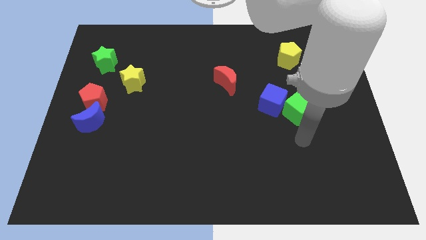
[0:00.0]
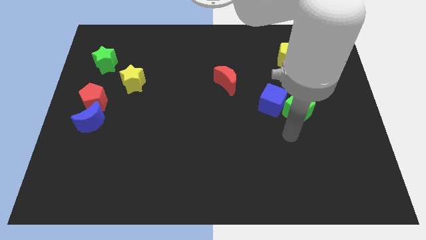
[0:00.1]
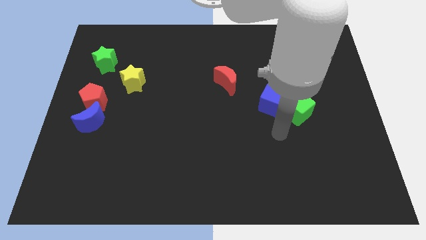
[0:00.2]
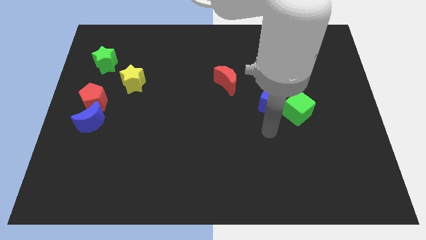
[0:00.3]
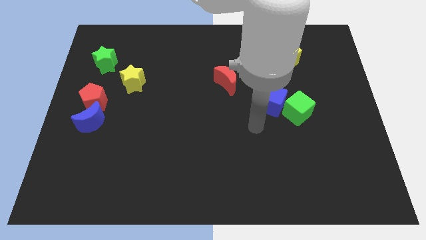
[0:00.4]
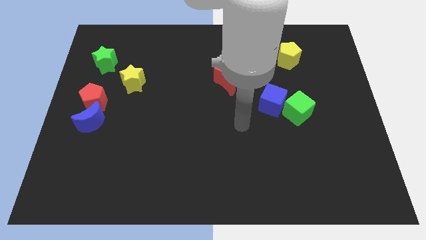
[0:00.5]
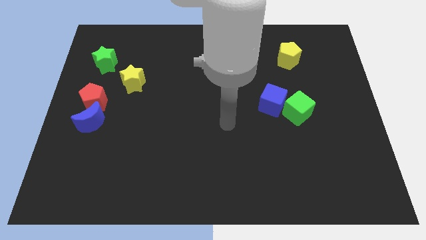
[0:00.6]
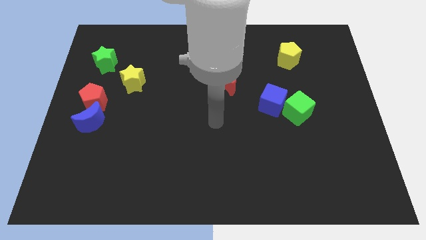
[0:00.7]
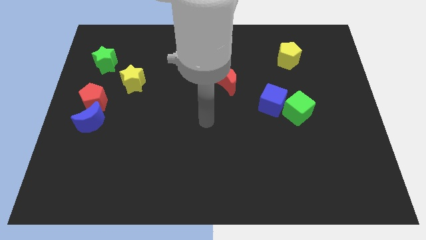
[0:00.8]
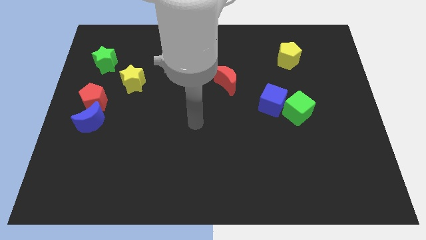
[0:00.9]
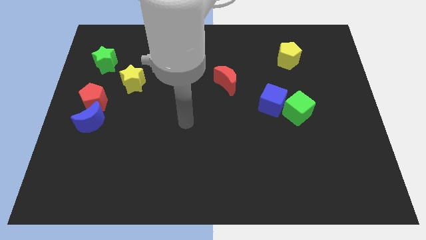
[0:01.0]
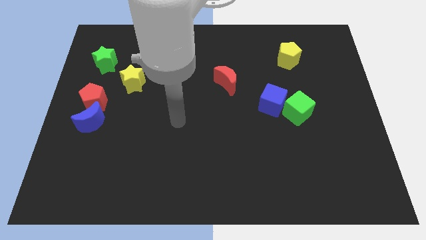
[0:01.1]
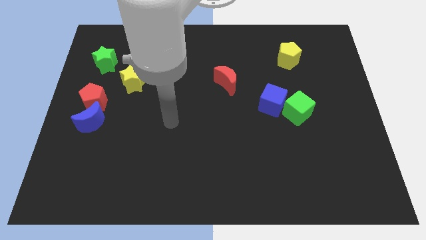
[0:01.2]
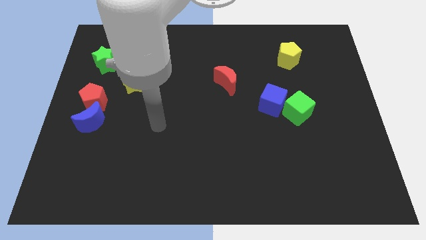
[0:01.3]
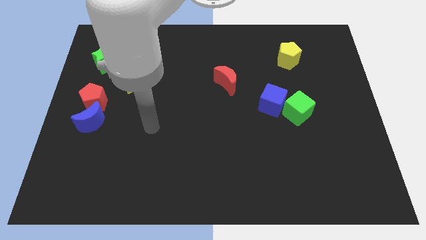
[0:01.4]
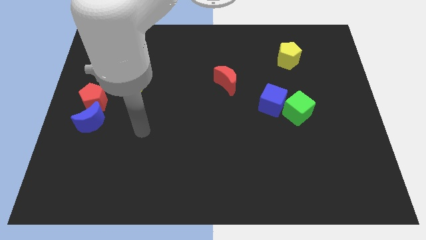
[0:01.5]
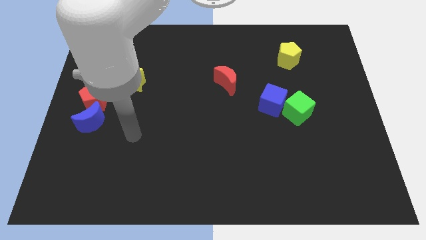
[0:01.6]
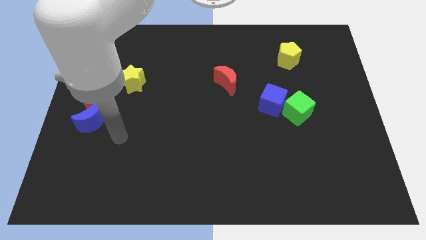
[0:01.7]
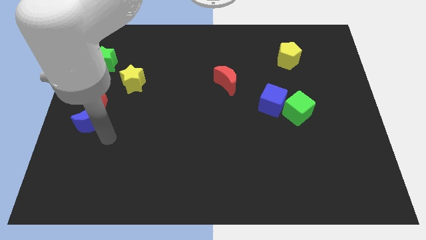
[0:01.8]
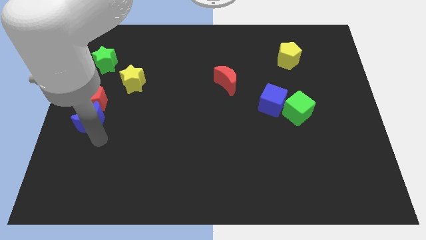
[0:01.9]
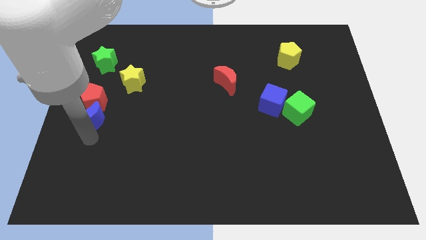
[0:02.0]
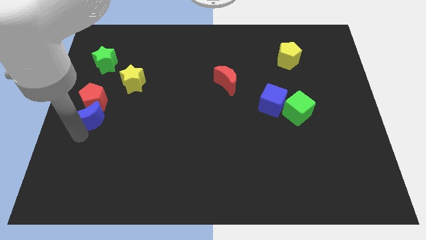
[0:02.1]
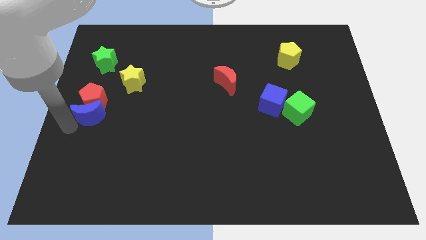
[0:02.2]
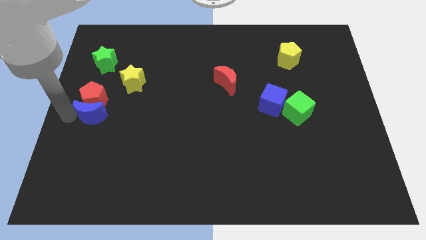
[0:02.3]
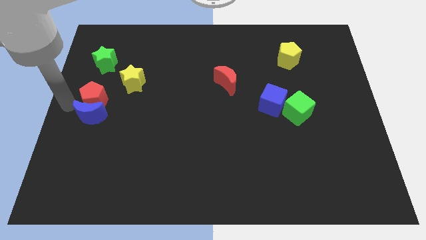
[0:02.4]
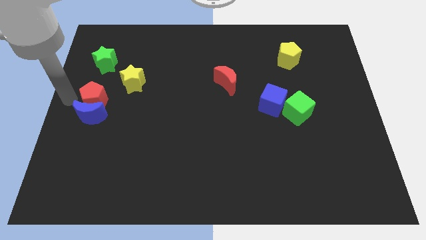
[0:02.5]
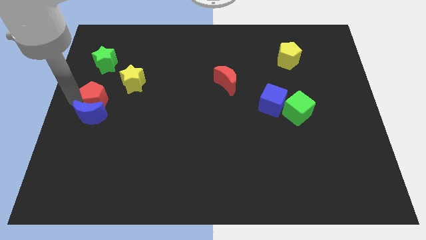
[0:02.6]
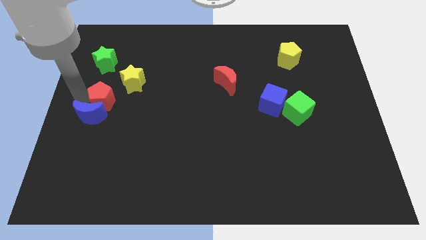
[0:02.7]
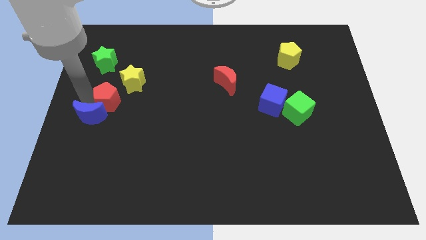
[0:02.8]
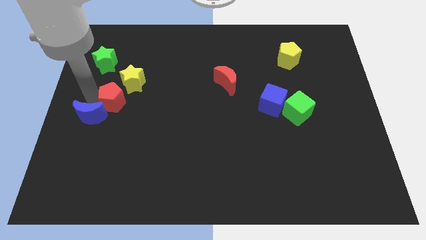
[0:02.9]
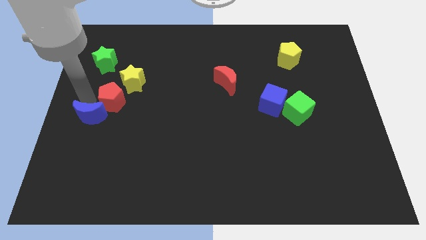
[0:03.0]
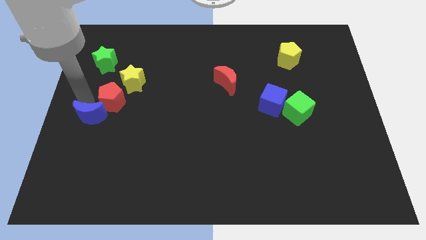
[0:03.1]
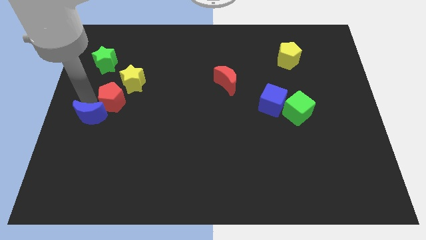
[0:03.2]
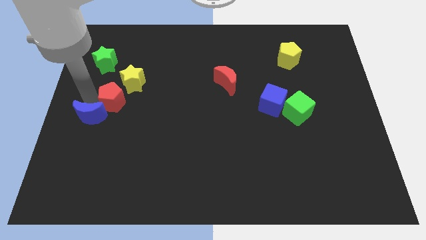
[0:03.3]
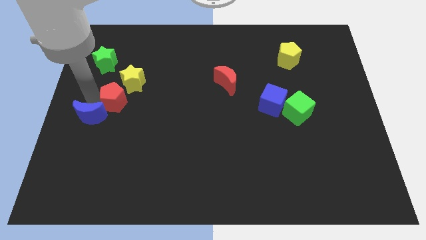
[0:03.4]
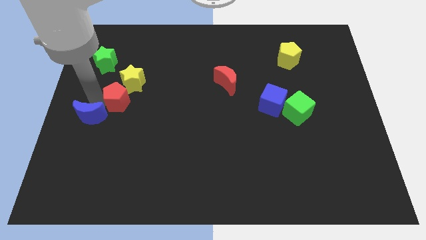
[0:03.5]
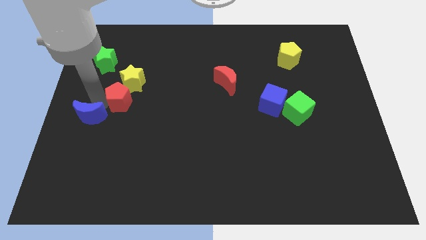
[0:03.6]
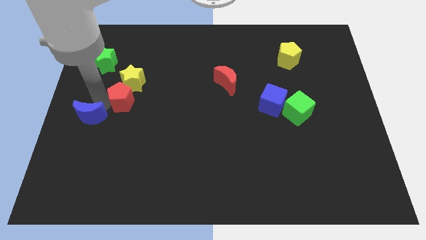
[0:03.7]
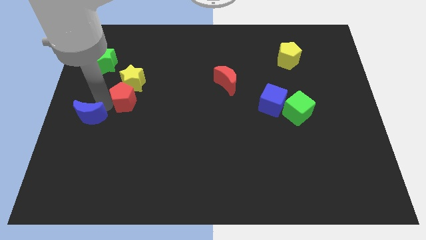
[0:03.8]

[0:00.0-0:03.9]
slide the red pentagon to the right a bit

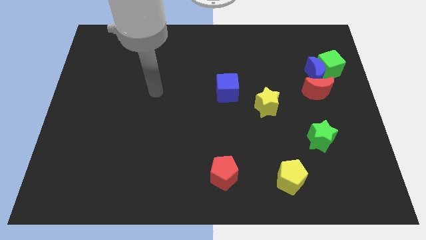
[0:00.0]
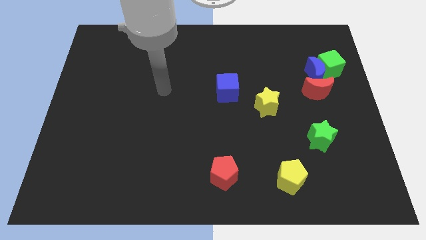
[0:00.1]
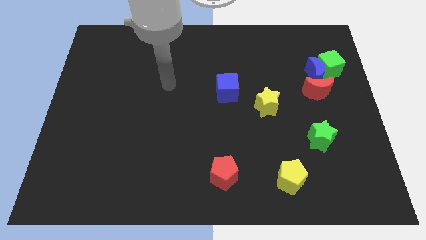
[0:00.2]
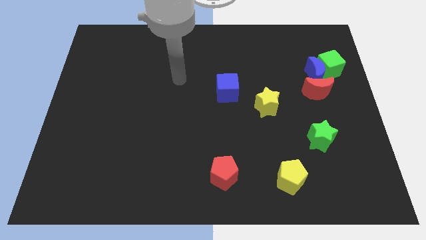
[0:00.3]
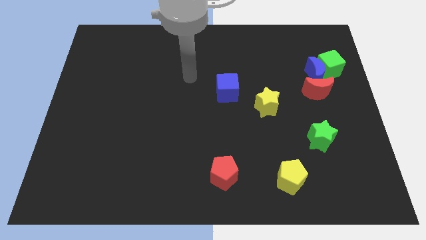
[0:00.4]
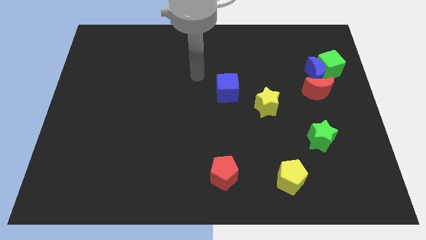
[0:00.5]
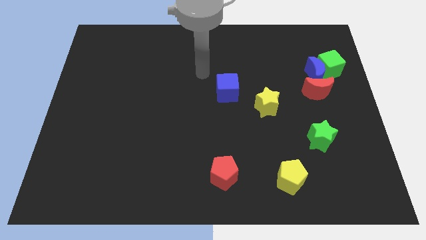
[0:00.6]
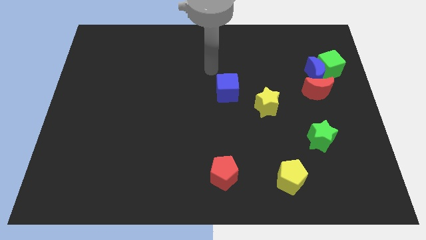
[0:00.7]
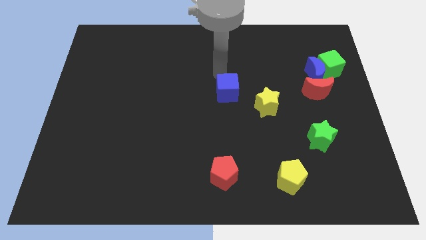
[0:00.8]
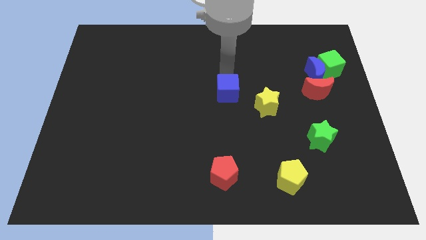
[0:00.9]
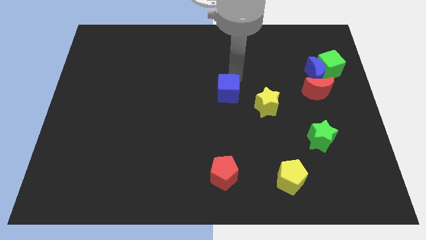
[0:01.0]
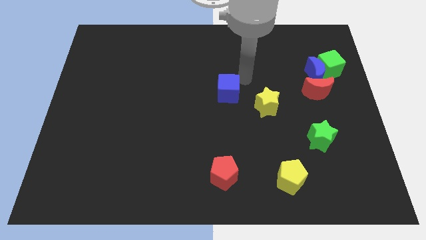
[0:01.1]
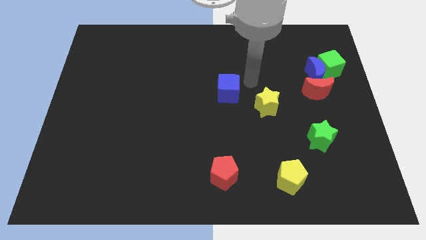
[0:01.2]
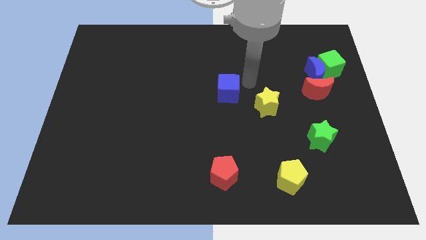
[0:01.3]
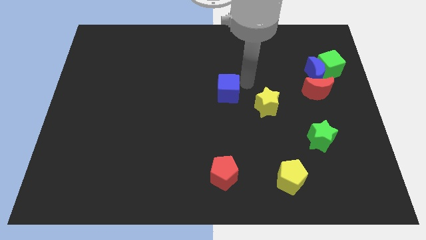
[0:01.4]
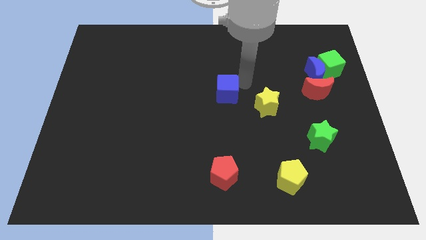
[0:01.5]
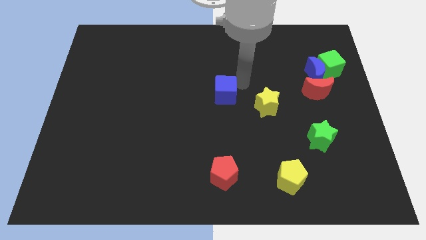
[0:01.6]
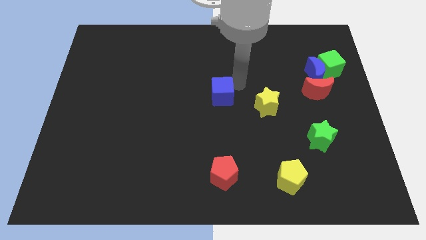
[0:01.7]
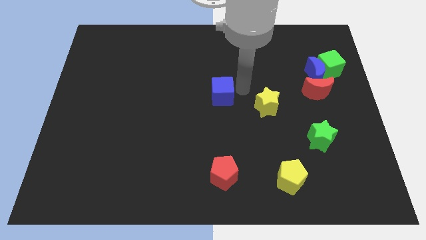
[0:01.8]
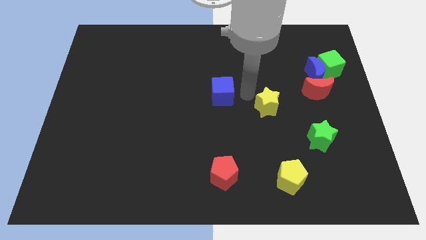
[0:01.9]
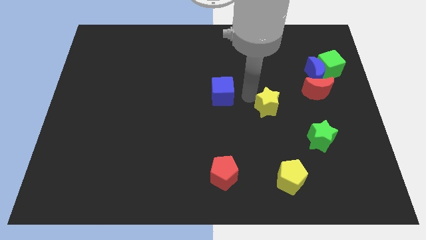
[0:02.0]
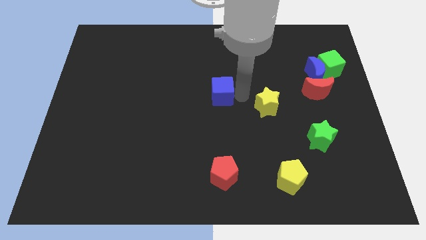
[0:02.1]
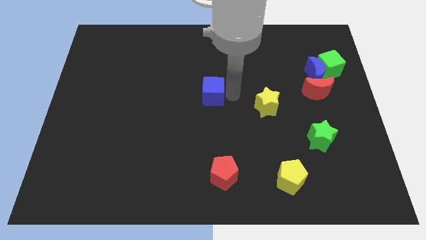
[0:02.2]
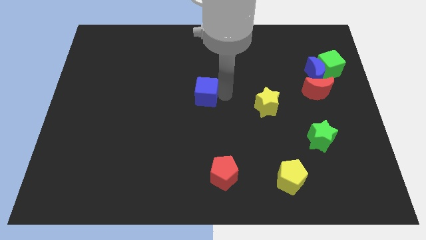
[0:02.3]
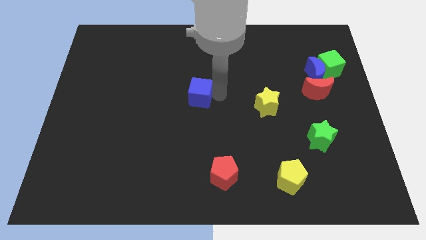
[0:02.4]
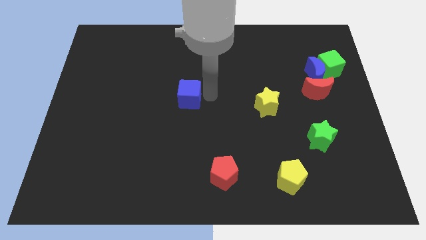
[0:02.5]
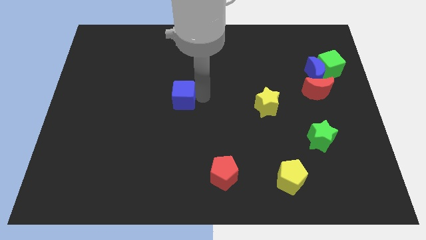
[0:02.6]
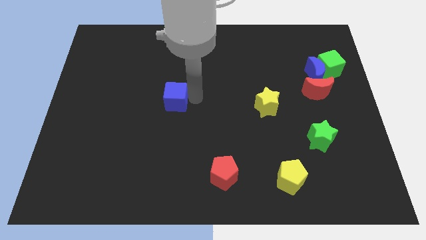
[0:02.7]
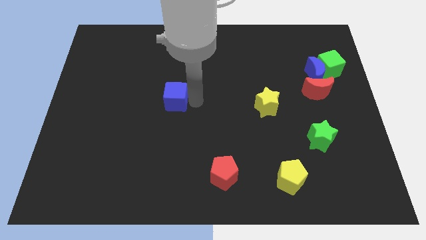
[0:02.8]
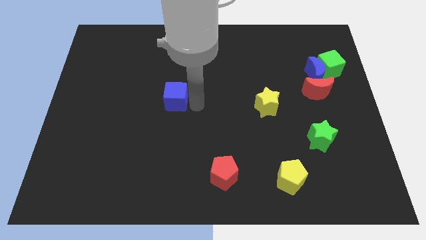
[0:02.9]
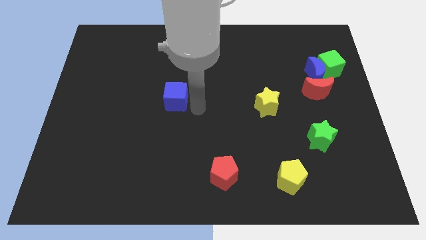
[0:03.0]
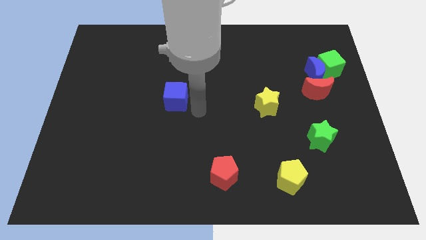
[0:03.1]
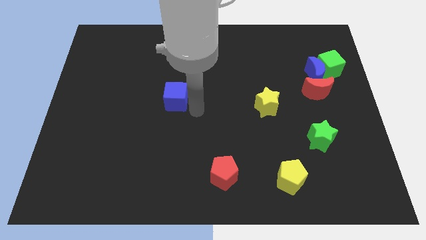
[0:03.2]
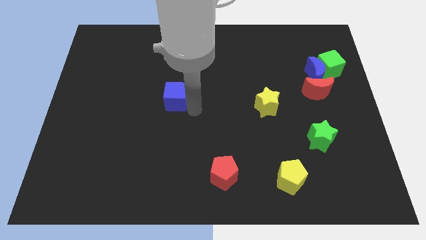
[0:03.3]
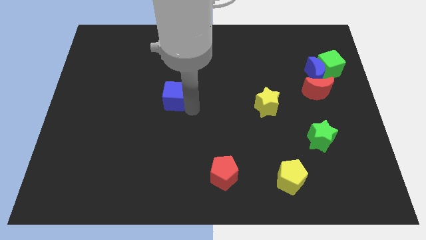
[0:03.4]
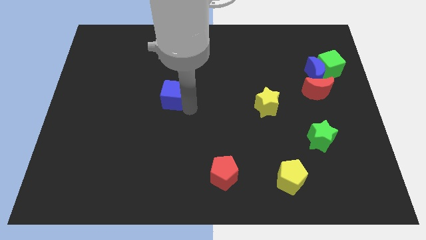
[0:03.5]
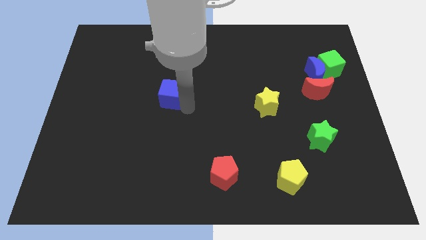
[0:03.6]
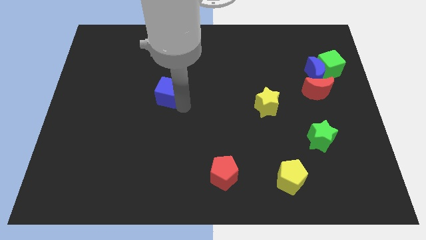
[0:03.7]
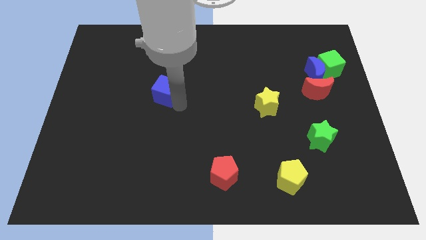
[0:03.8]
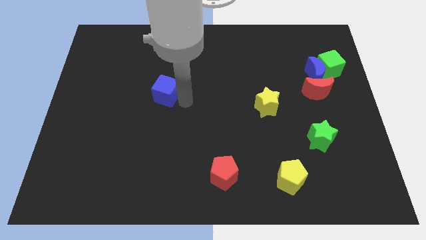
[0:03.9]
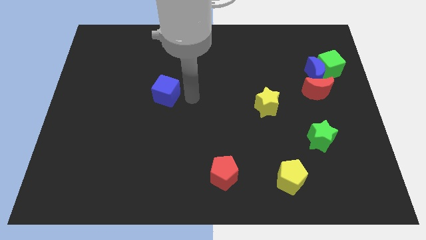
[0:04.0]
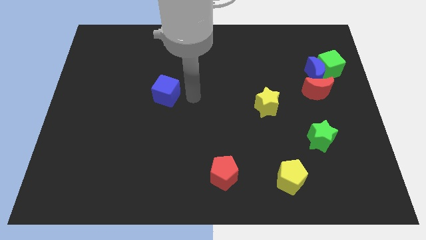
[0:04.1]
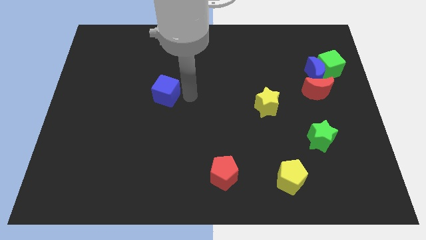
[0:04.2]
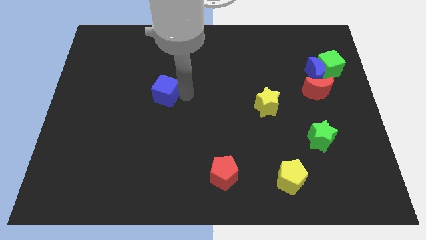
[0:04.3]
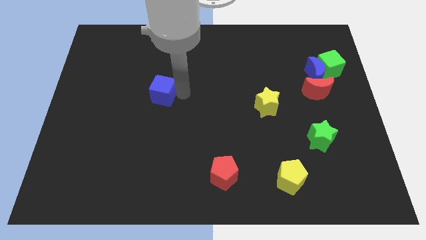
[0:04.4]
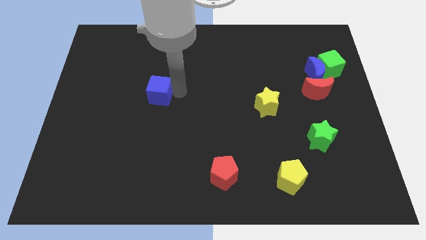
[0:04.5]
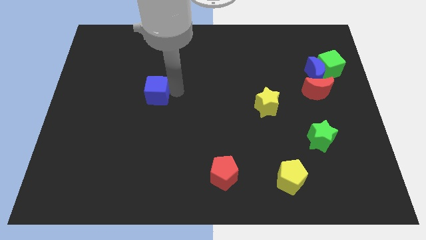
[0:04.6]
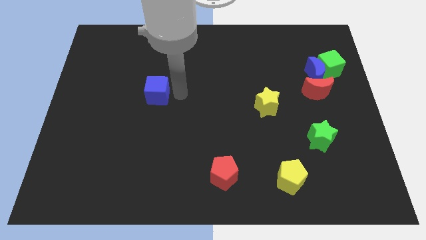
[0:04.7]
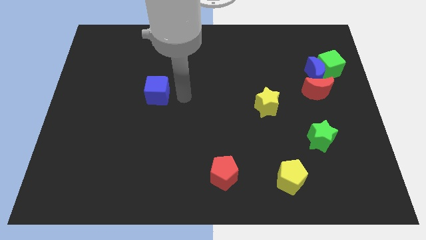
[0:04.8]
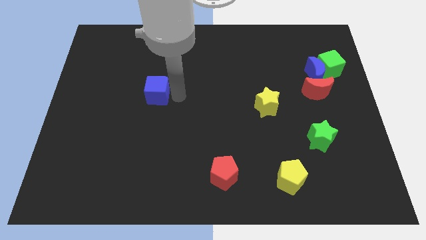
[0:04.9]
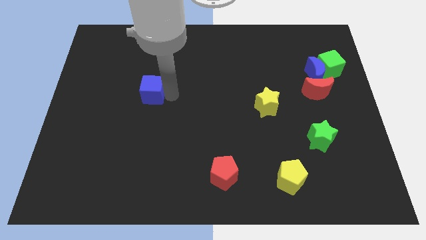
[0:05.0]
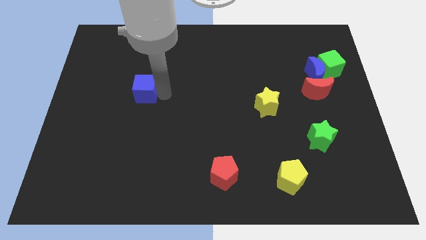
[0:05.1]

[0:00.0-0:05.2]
push the blue cube left
